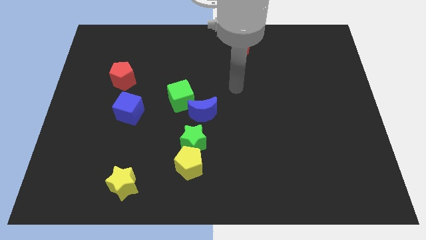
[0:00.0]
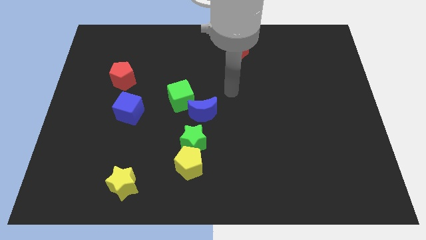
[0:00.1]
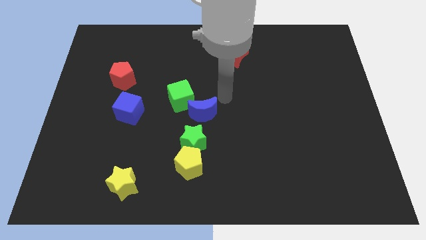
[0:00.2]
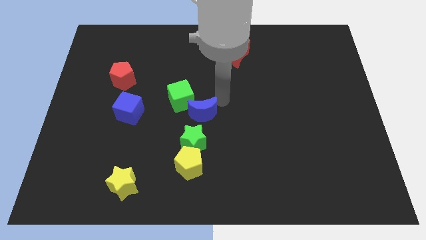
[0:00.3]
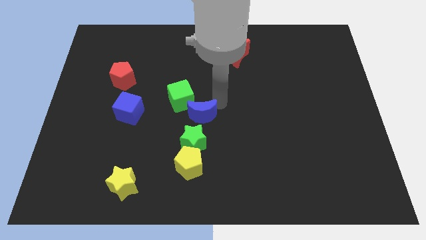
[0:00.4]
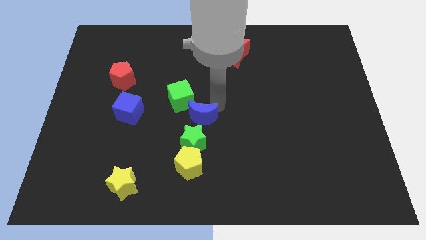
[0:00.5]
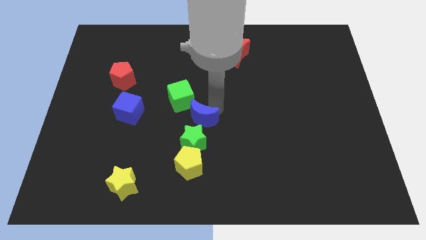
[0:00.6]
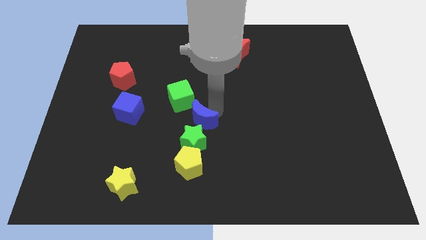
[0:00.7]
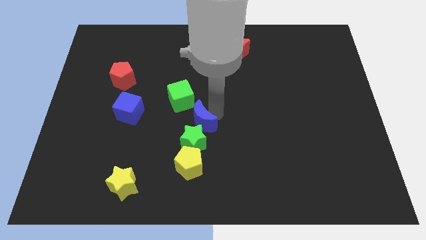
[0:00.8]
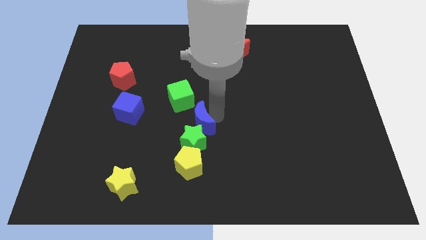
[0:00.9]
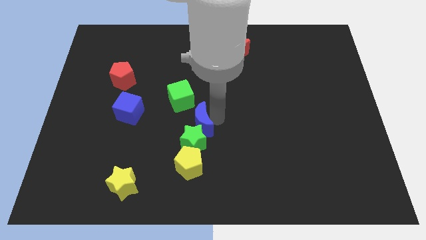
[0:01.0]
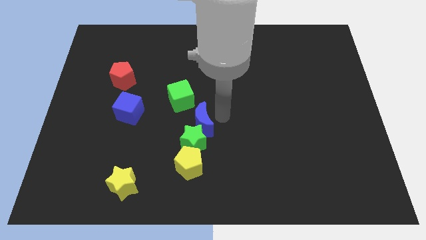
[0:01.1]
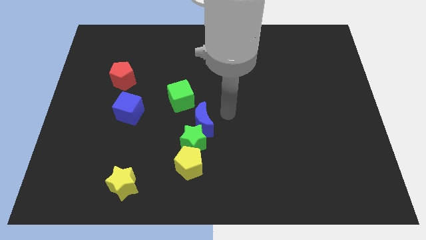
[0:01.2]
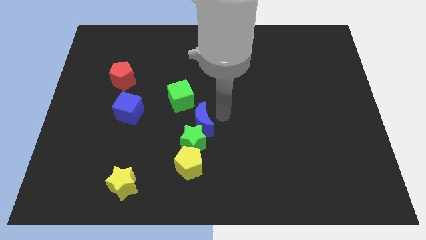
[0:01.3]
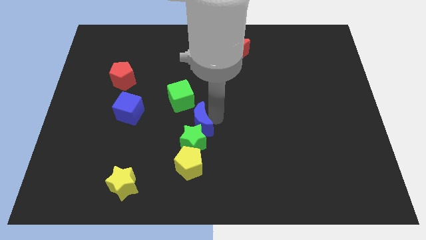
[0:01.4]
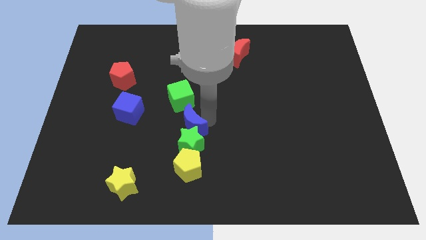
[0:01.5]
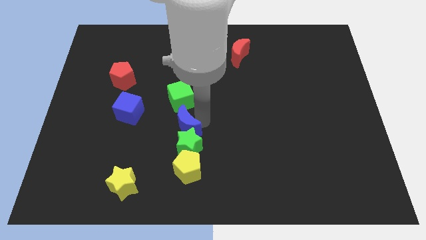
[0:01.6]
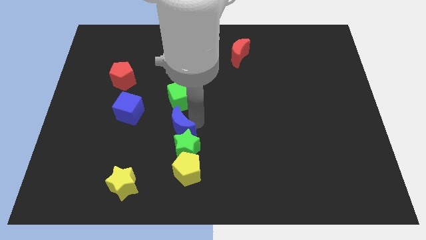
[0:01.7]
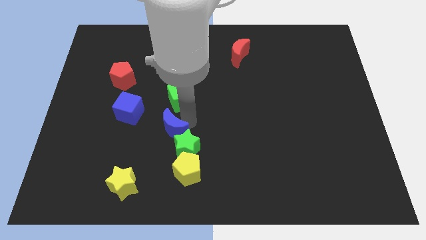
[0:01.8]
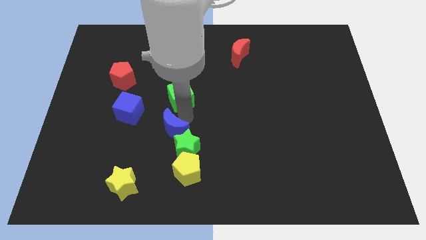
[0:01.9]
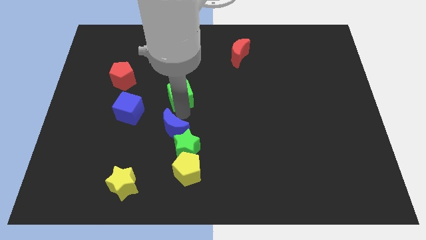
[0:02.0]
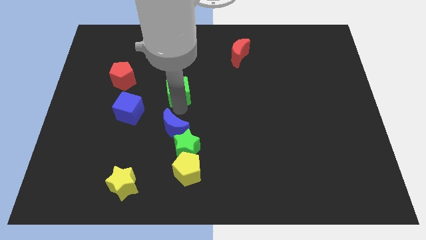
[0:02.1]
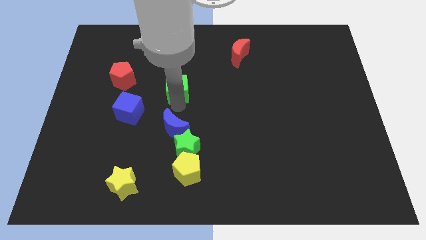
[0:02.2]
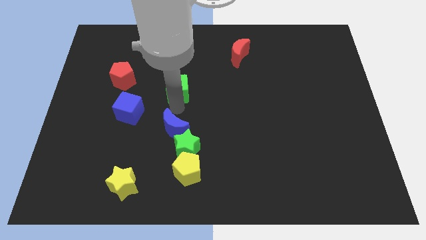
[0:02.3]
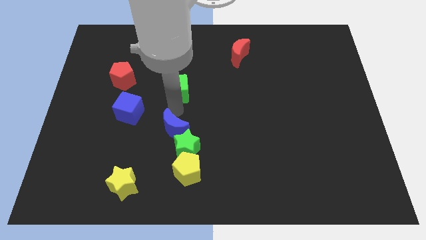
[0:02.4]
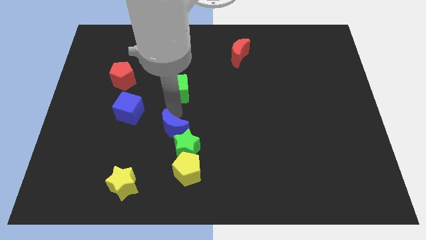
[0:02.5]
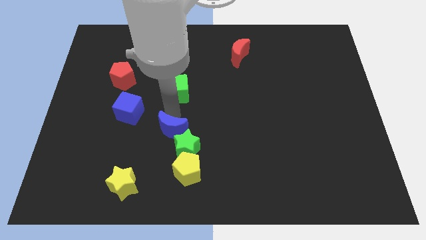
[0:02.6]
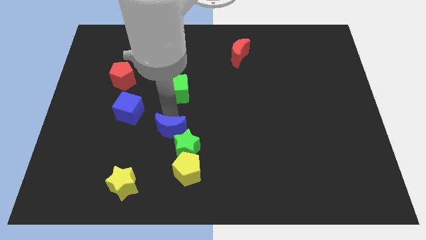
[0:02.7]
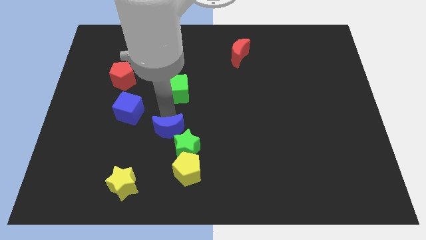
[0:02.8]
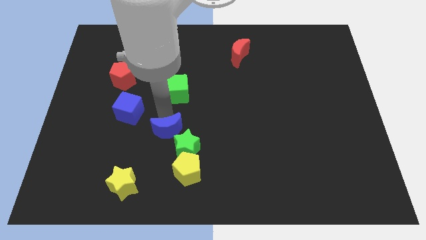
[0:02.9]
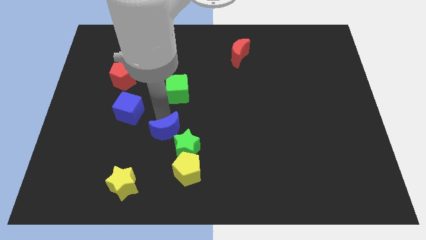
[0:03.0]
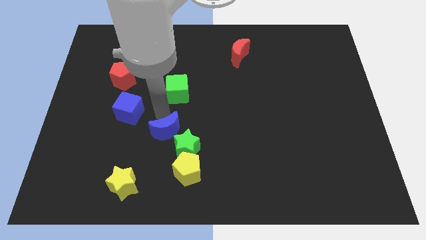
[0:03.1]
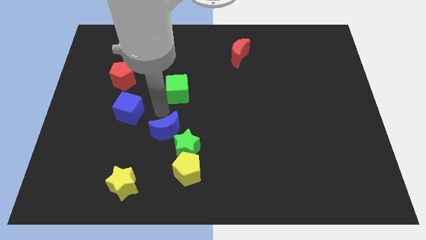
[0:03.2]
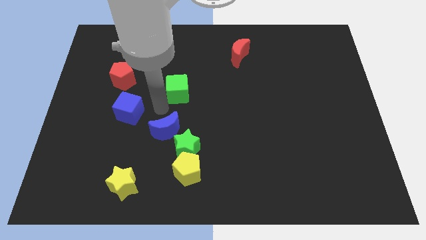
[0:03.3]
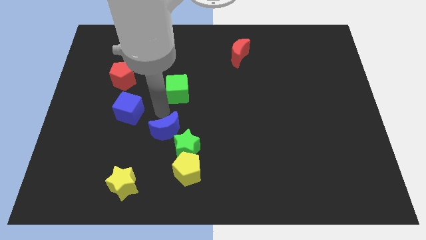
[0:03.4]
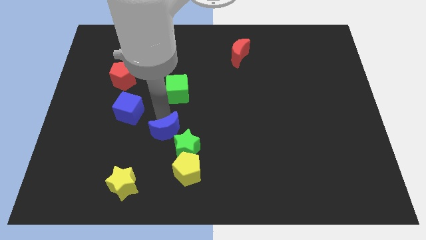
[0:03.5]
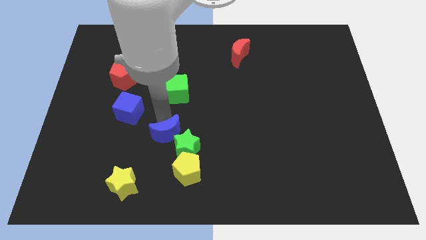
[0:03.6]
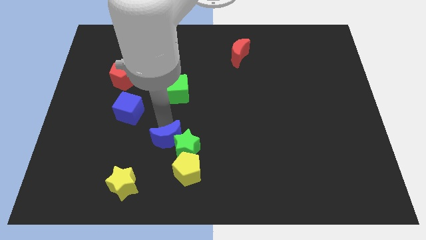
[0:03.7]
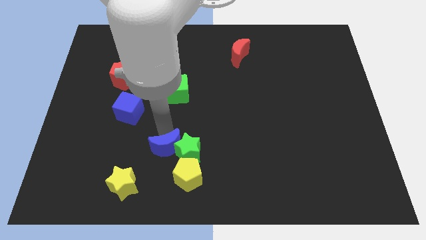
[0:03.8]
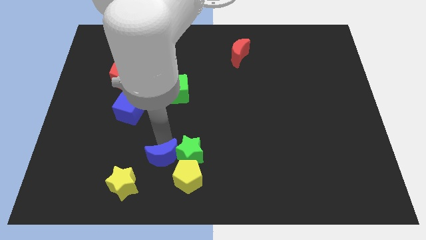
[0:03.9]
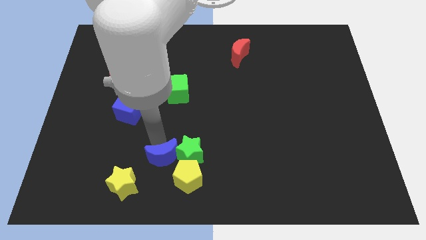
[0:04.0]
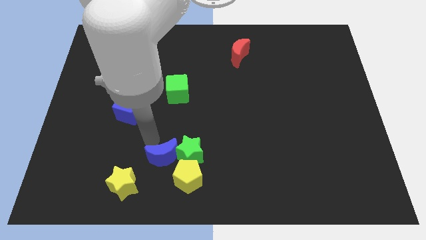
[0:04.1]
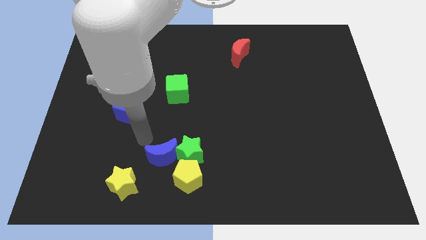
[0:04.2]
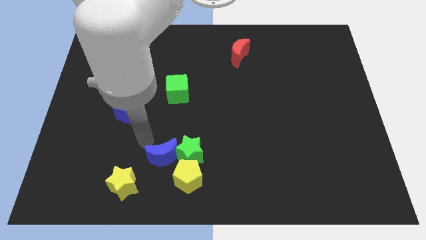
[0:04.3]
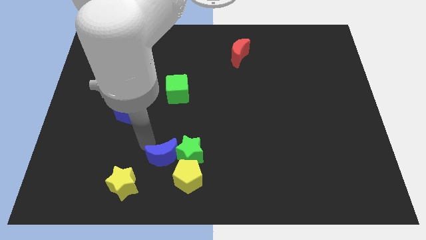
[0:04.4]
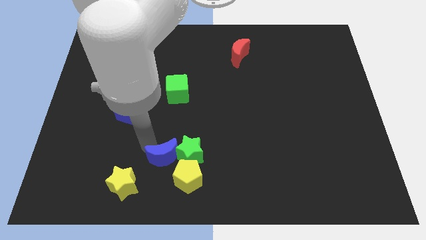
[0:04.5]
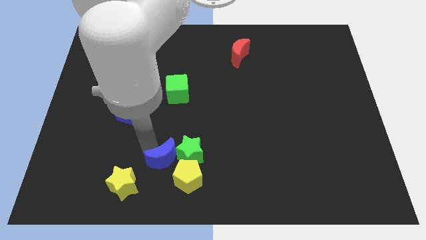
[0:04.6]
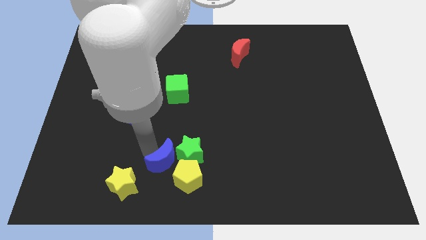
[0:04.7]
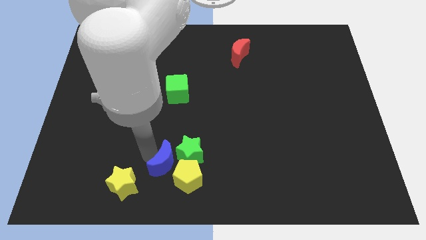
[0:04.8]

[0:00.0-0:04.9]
slide the blue moon towards the yellow pentagon

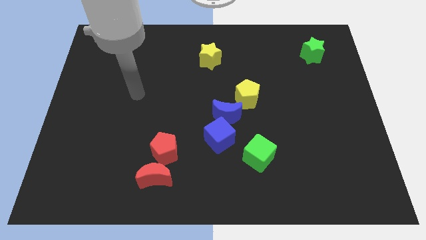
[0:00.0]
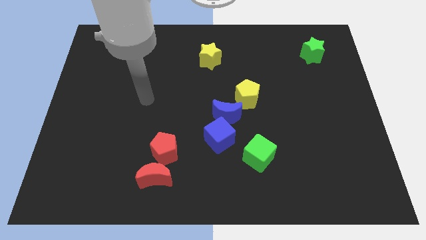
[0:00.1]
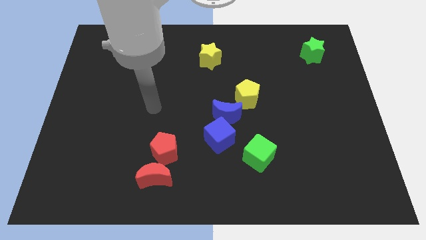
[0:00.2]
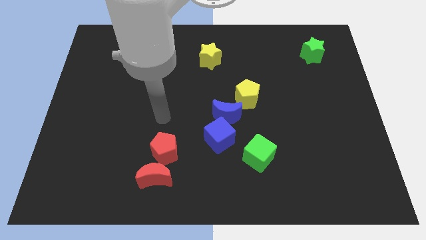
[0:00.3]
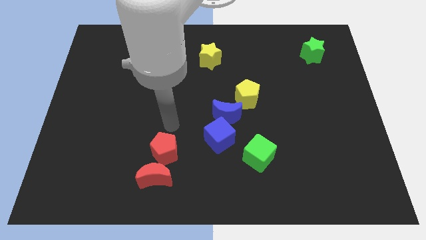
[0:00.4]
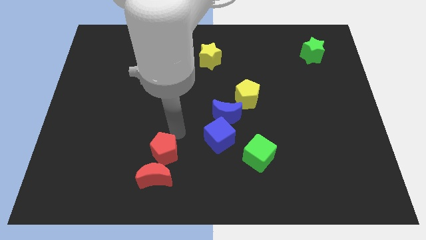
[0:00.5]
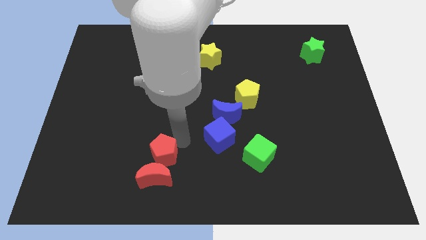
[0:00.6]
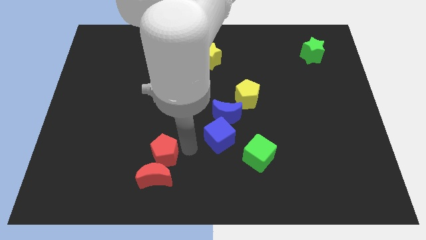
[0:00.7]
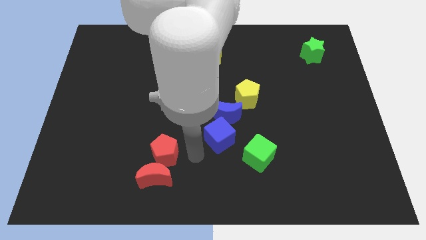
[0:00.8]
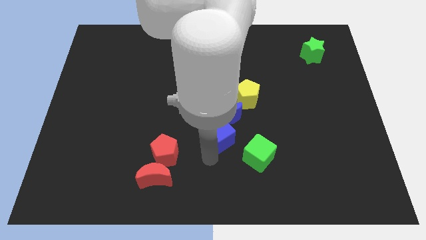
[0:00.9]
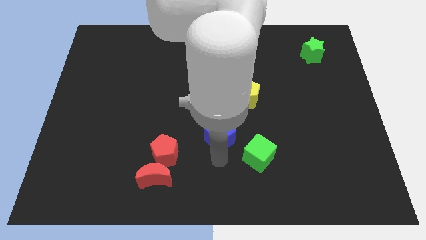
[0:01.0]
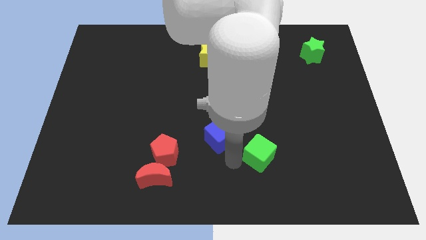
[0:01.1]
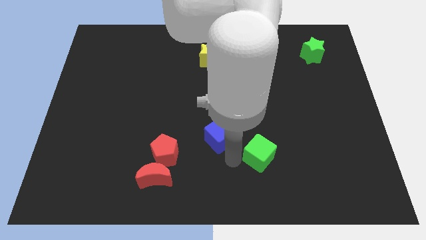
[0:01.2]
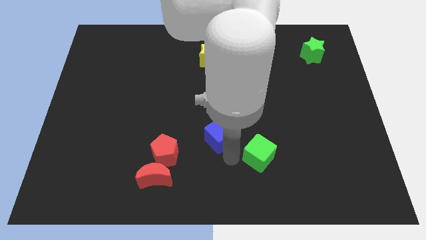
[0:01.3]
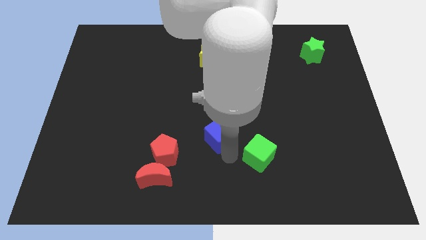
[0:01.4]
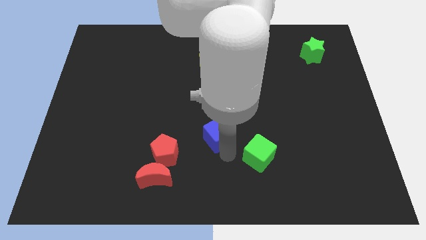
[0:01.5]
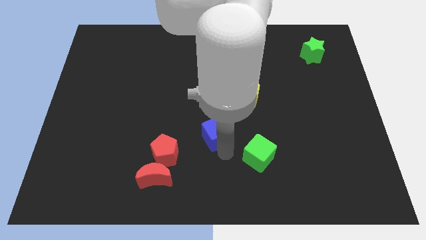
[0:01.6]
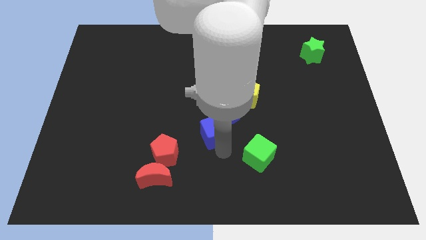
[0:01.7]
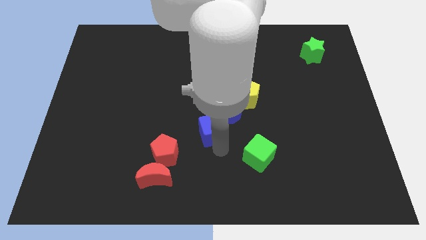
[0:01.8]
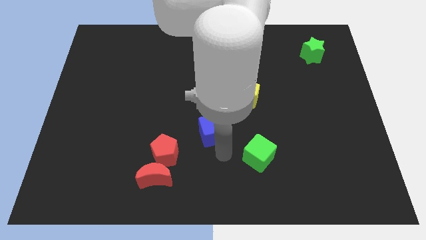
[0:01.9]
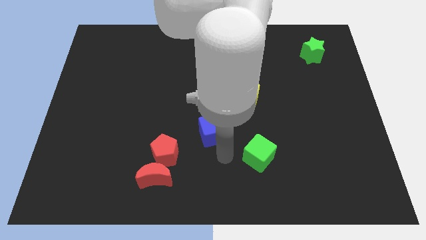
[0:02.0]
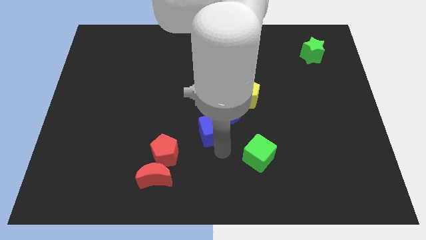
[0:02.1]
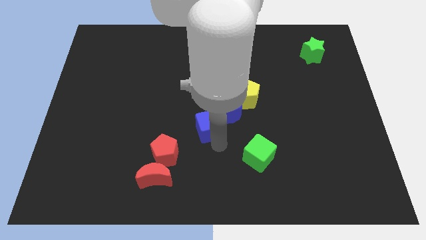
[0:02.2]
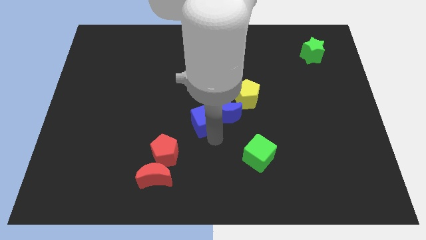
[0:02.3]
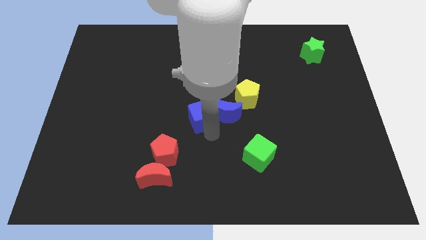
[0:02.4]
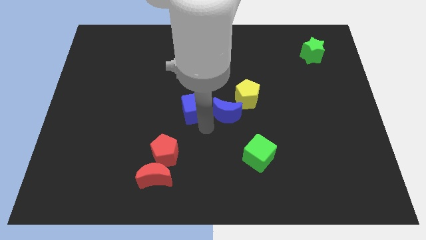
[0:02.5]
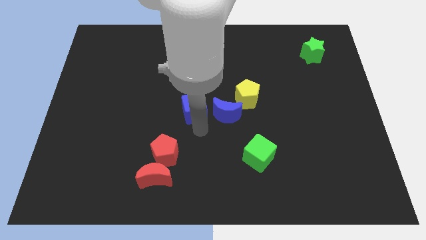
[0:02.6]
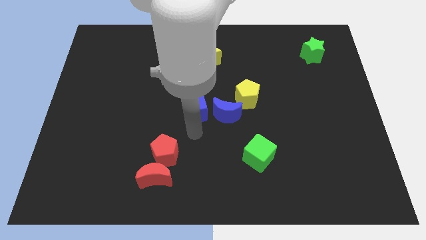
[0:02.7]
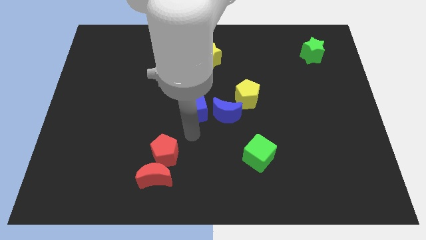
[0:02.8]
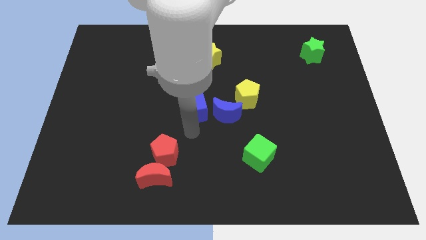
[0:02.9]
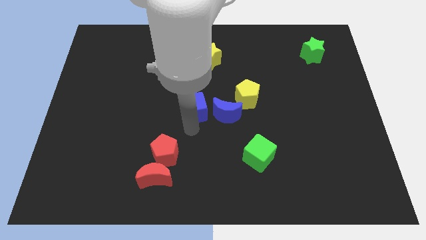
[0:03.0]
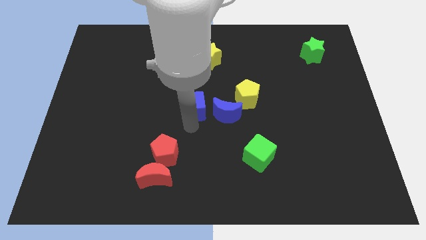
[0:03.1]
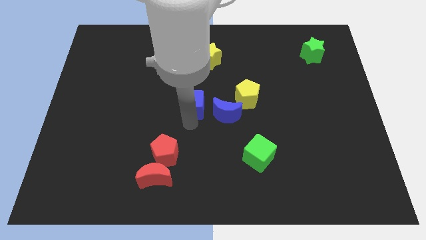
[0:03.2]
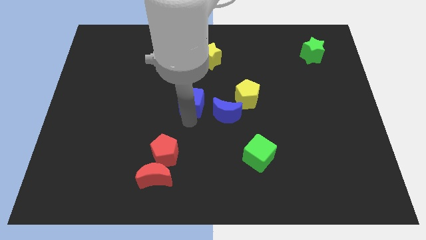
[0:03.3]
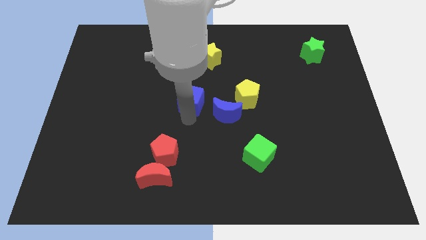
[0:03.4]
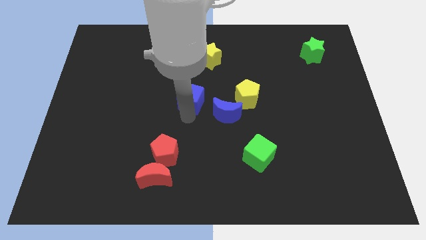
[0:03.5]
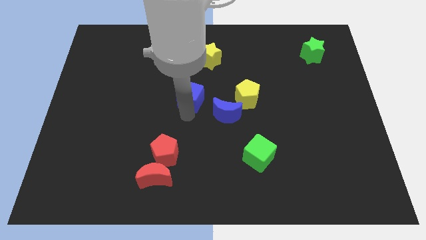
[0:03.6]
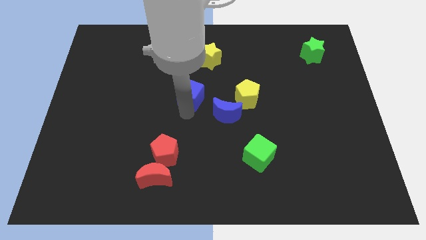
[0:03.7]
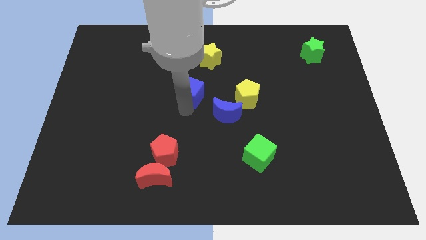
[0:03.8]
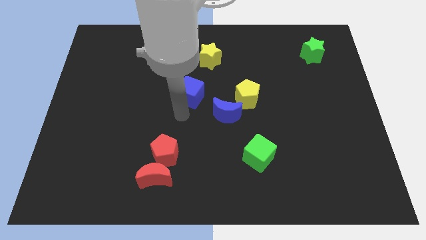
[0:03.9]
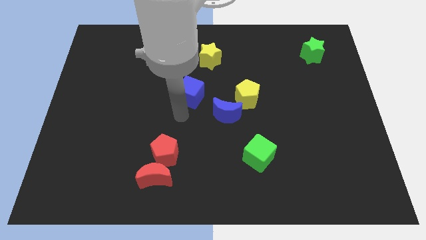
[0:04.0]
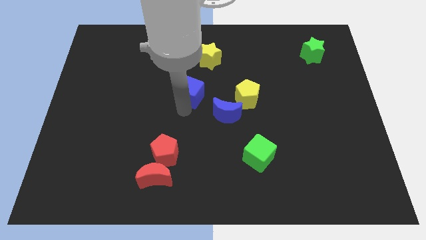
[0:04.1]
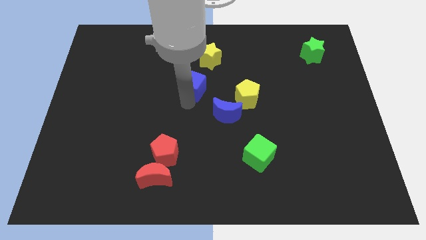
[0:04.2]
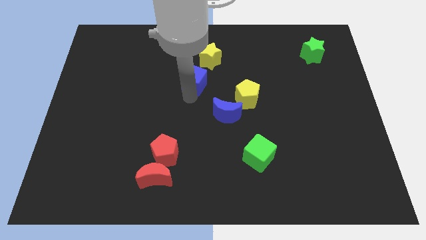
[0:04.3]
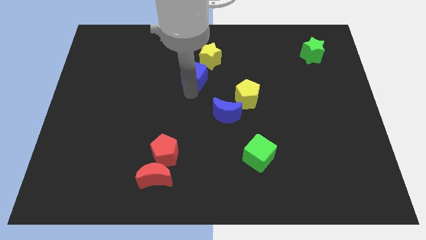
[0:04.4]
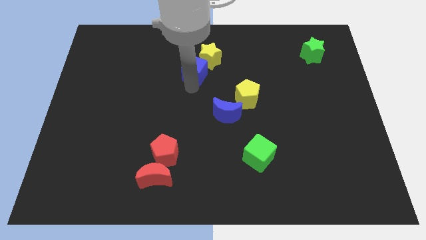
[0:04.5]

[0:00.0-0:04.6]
move the blue cube towards the yellow star
